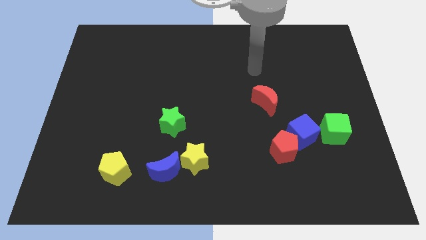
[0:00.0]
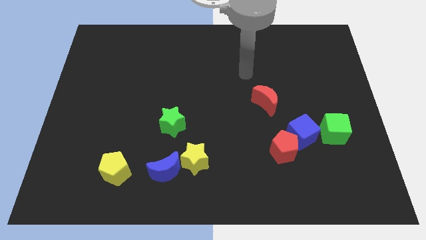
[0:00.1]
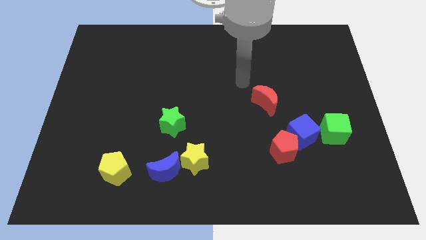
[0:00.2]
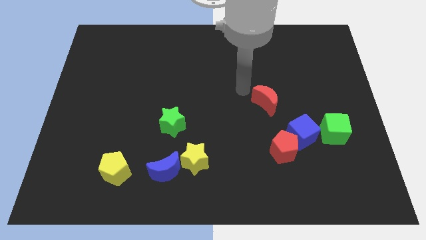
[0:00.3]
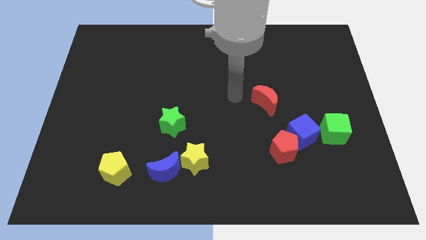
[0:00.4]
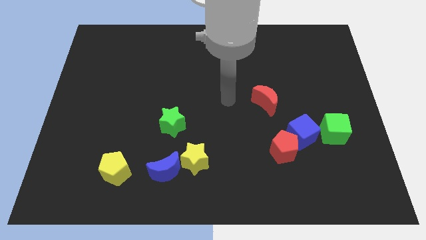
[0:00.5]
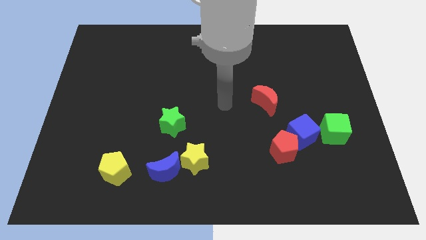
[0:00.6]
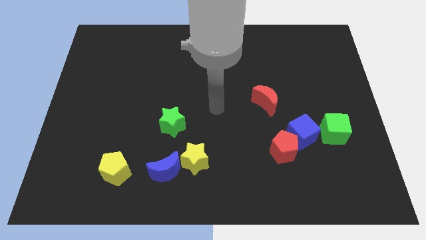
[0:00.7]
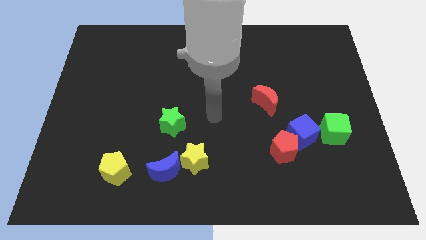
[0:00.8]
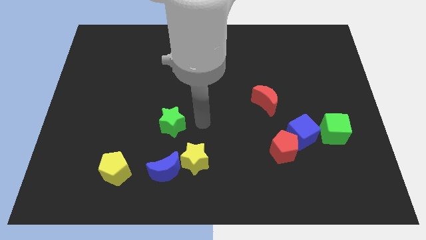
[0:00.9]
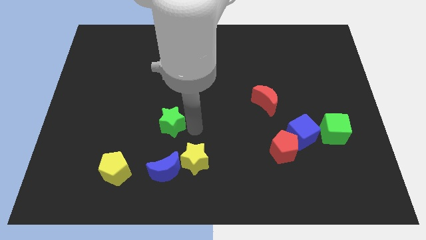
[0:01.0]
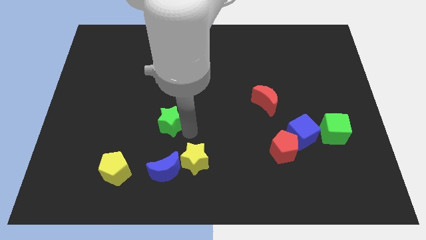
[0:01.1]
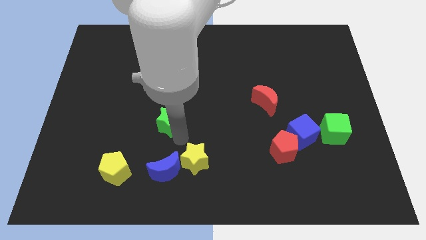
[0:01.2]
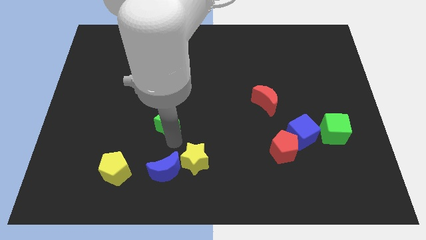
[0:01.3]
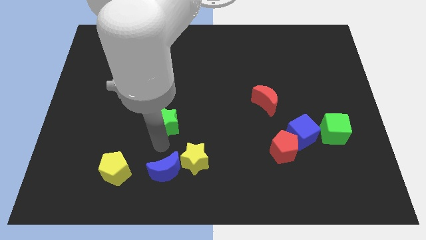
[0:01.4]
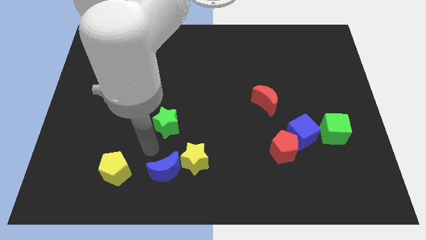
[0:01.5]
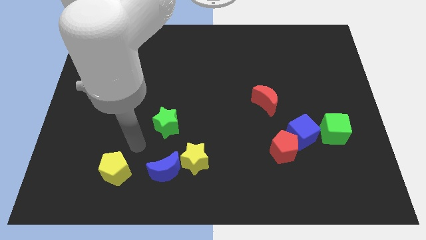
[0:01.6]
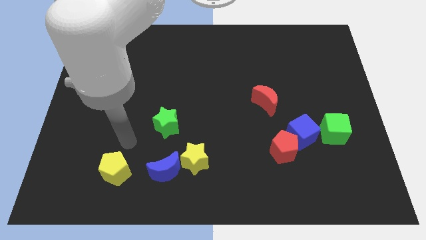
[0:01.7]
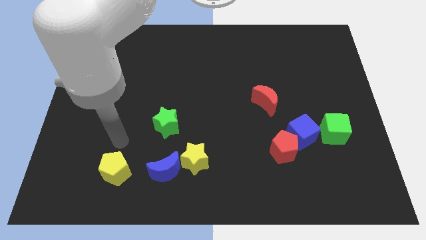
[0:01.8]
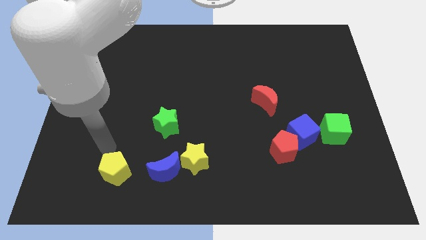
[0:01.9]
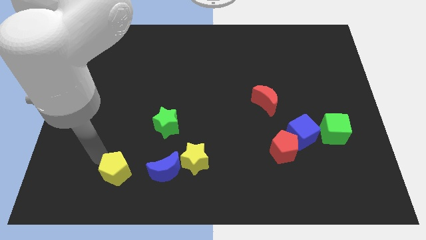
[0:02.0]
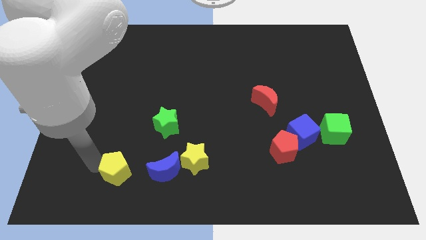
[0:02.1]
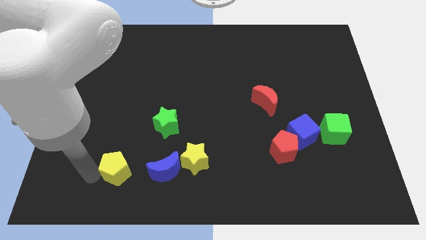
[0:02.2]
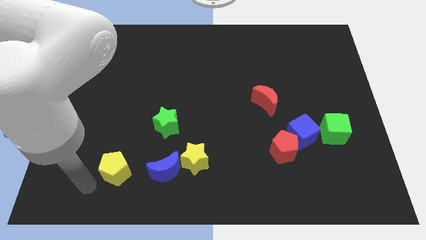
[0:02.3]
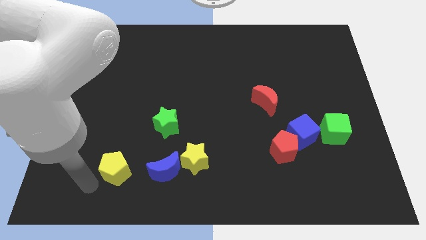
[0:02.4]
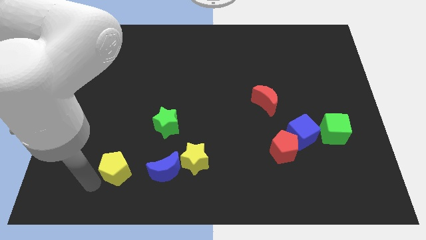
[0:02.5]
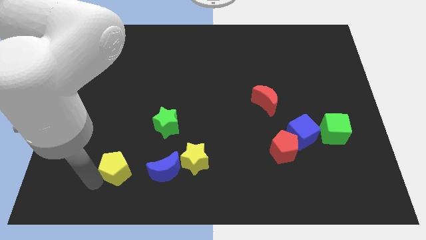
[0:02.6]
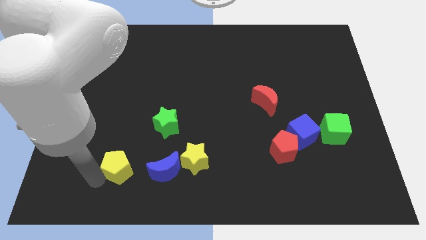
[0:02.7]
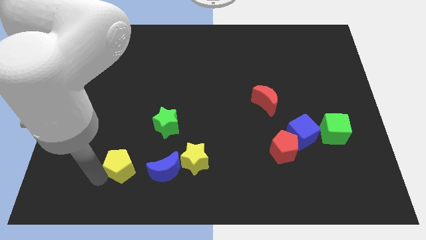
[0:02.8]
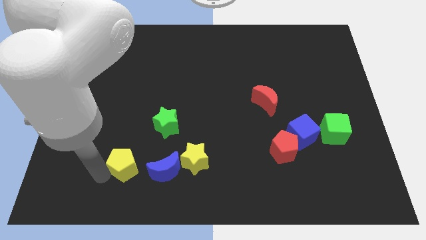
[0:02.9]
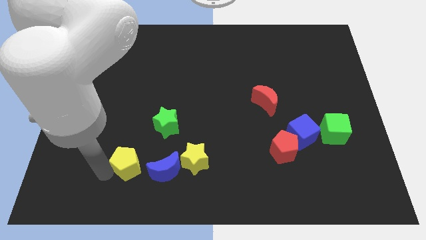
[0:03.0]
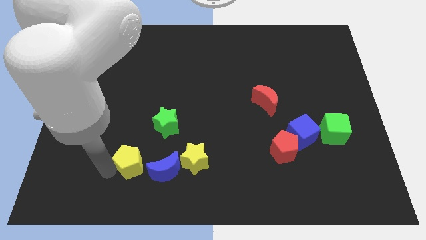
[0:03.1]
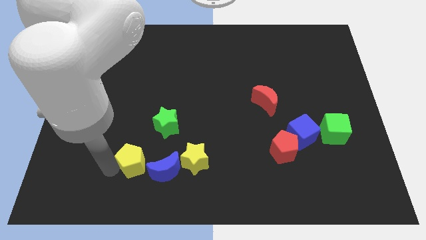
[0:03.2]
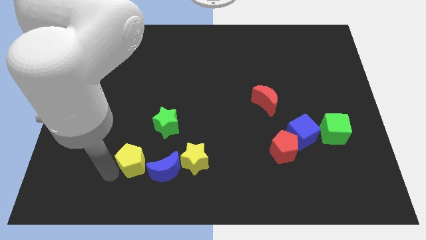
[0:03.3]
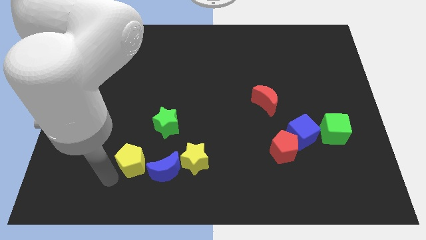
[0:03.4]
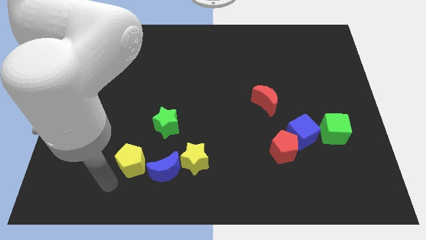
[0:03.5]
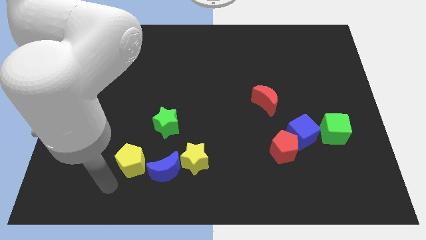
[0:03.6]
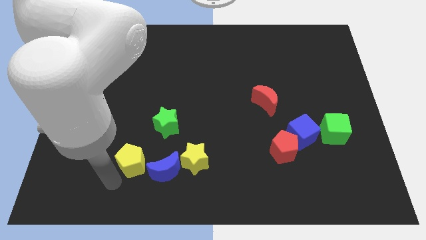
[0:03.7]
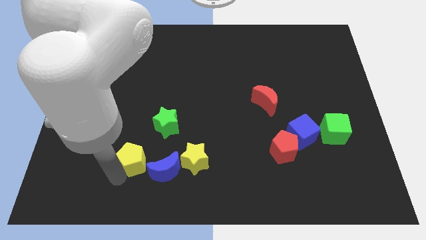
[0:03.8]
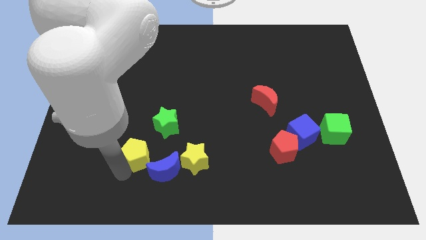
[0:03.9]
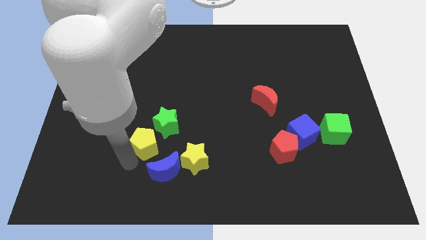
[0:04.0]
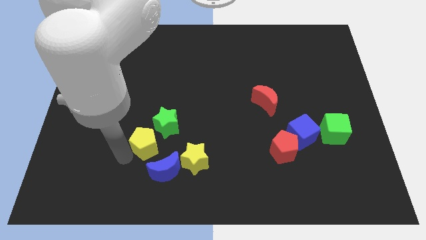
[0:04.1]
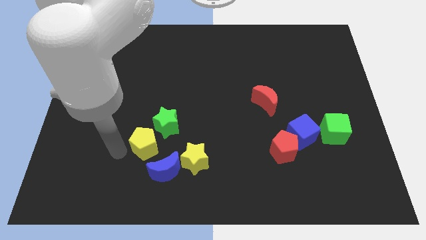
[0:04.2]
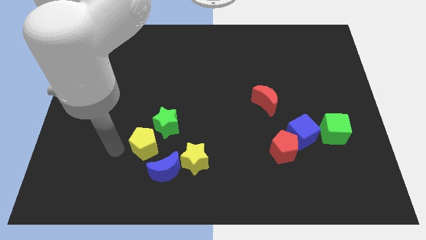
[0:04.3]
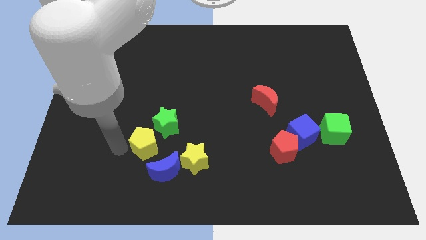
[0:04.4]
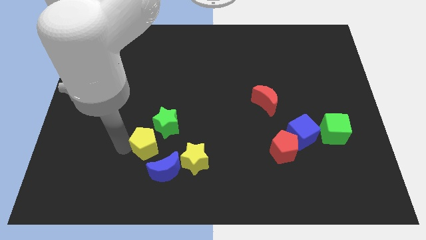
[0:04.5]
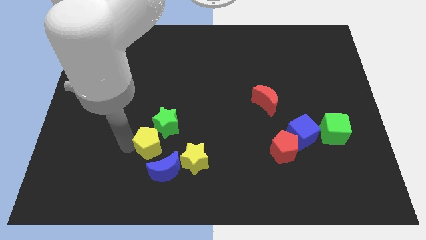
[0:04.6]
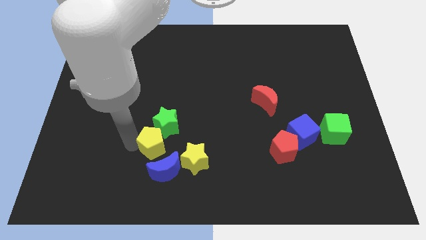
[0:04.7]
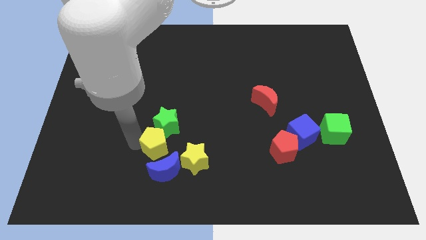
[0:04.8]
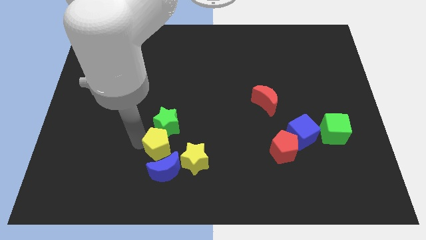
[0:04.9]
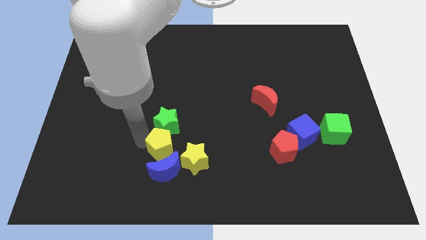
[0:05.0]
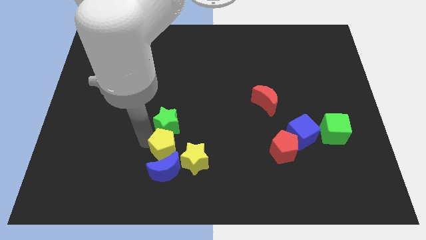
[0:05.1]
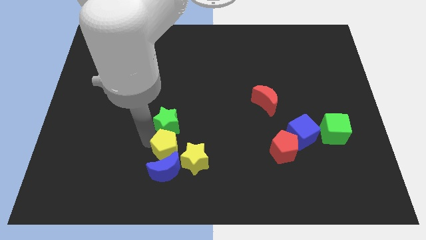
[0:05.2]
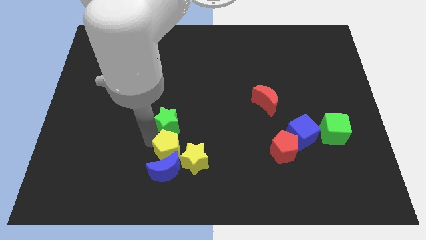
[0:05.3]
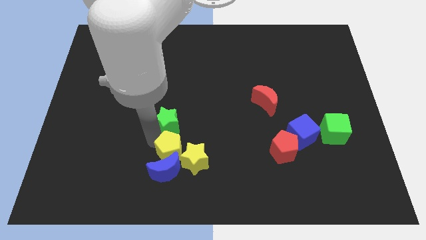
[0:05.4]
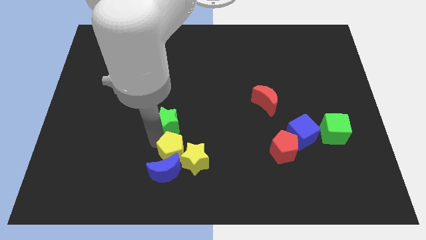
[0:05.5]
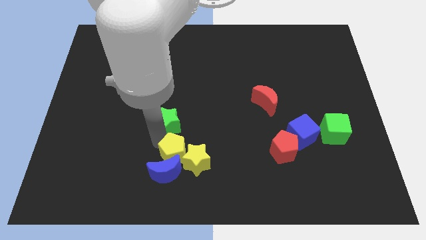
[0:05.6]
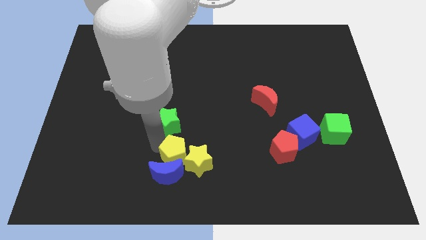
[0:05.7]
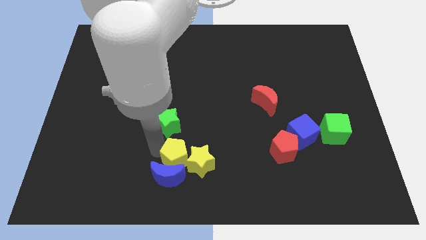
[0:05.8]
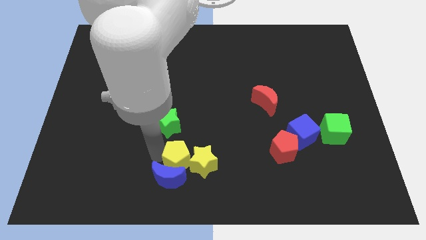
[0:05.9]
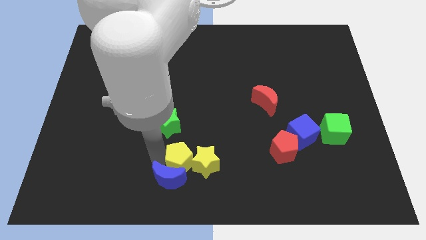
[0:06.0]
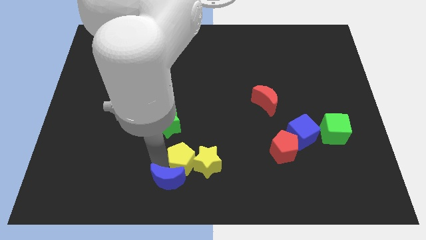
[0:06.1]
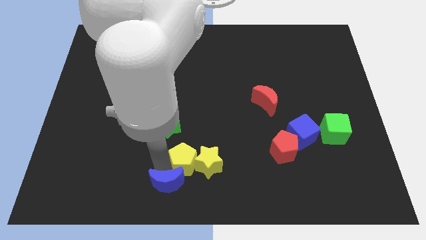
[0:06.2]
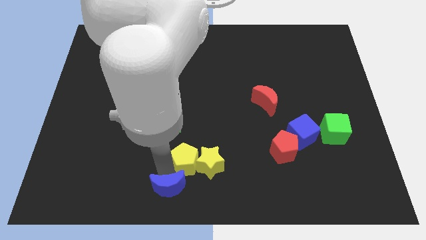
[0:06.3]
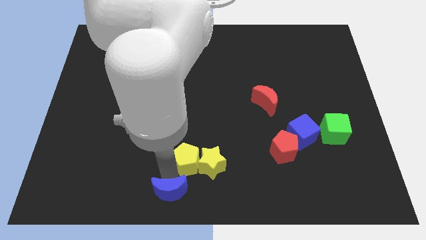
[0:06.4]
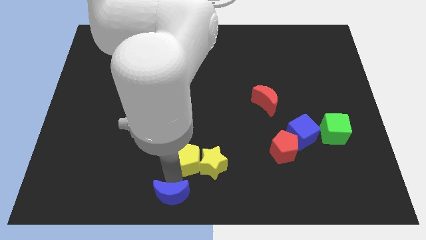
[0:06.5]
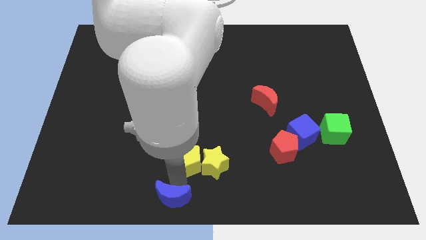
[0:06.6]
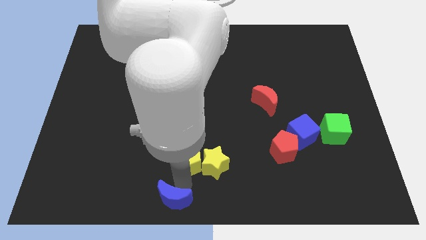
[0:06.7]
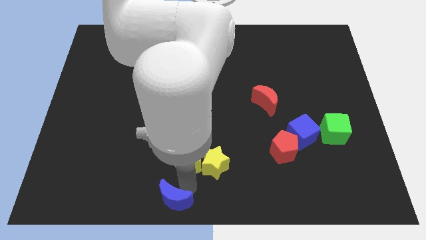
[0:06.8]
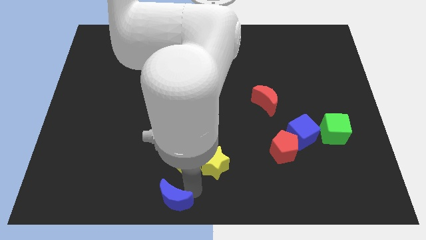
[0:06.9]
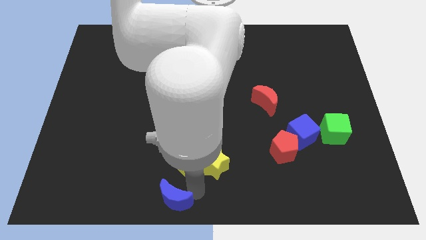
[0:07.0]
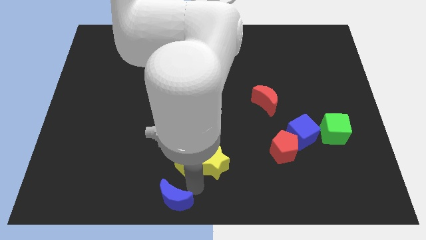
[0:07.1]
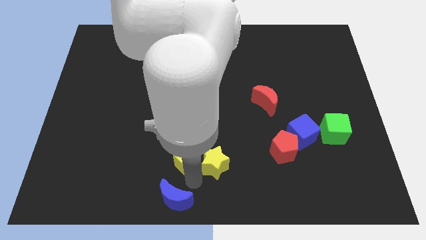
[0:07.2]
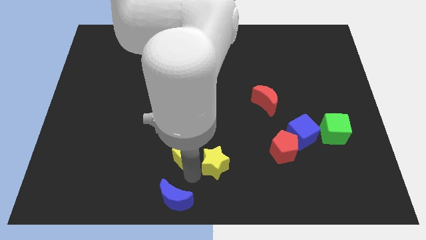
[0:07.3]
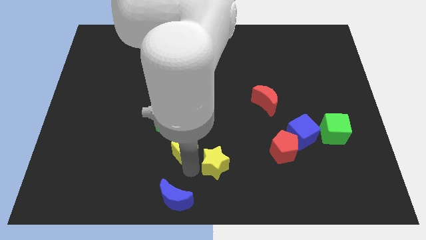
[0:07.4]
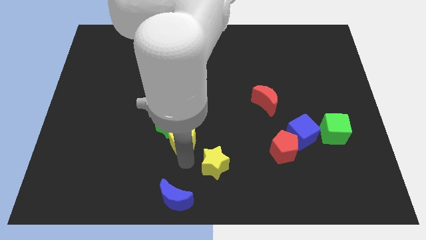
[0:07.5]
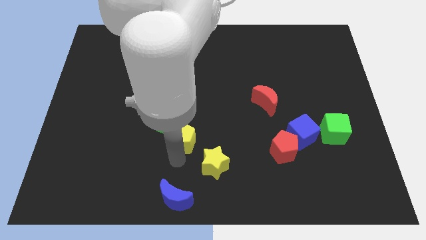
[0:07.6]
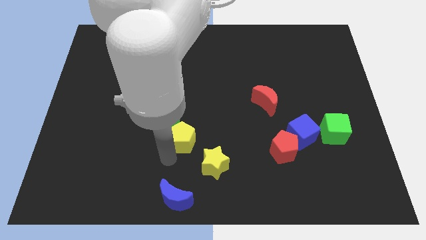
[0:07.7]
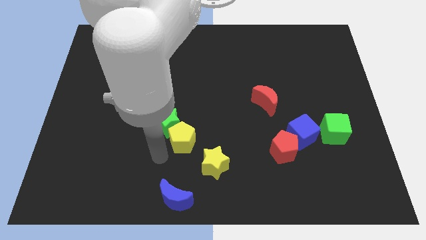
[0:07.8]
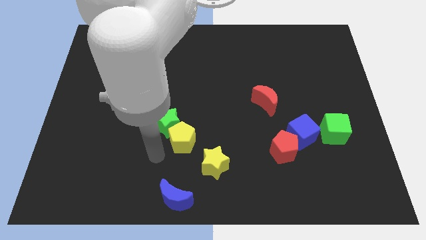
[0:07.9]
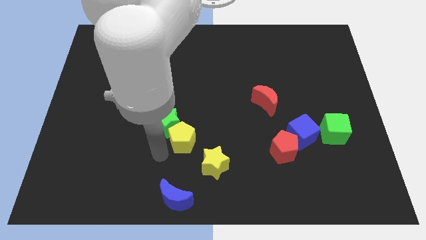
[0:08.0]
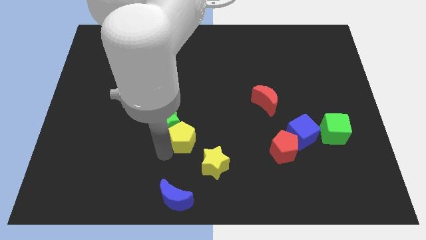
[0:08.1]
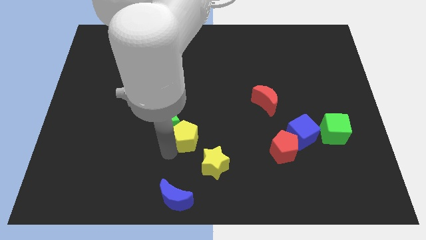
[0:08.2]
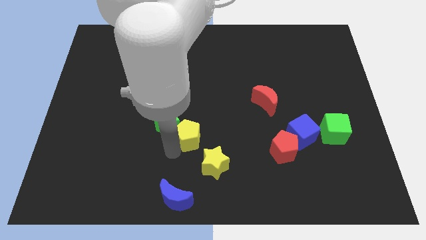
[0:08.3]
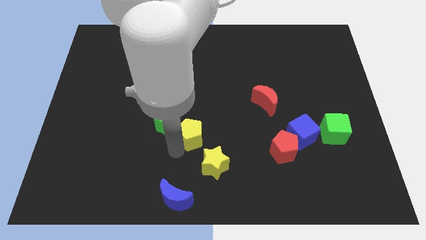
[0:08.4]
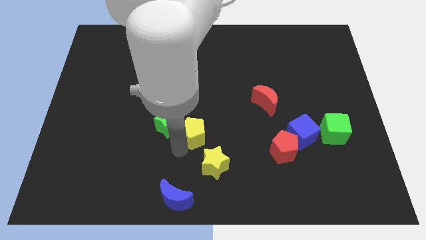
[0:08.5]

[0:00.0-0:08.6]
slide the yellow pentagon above the yellow star
